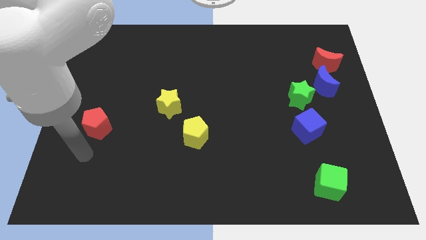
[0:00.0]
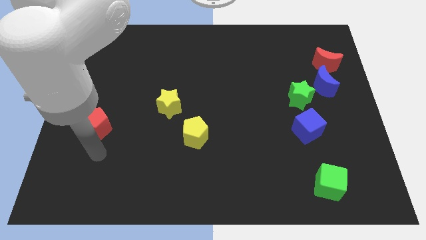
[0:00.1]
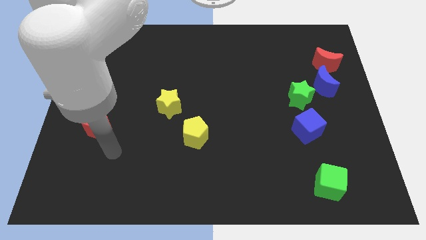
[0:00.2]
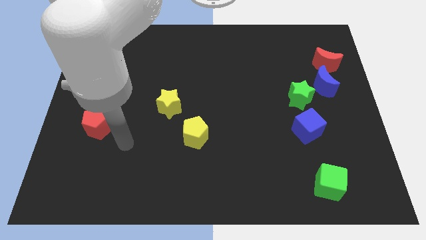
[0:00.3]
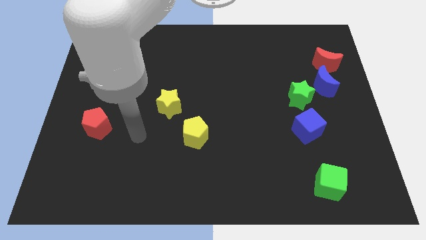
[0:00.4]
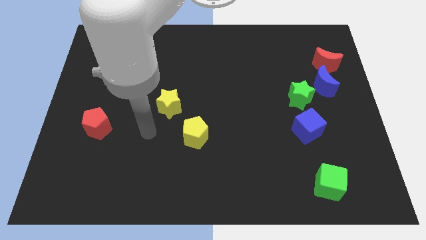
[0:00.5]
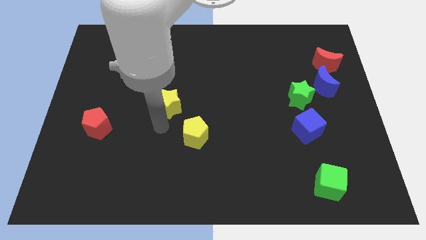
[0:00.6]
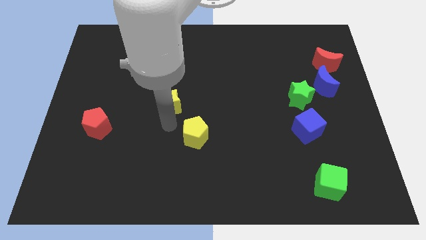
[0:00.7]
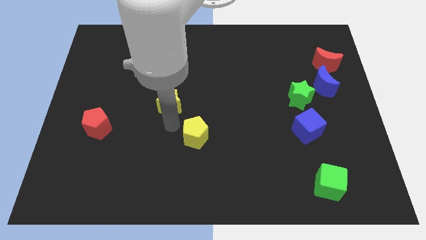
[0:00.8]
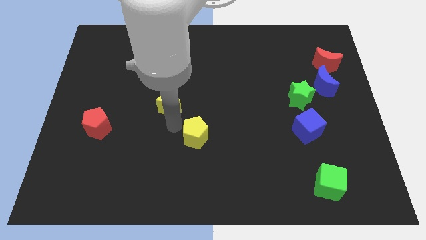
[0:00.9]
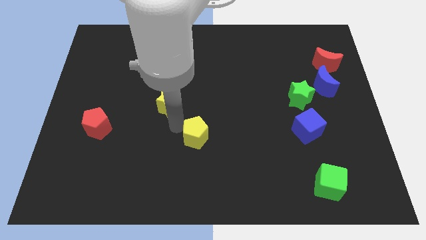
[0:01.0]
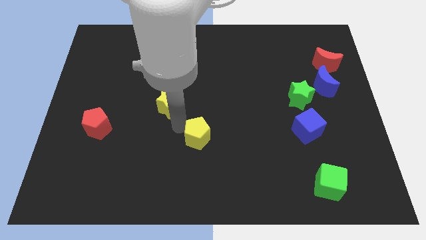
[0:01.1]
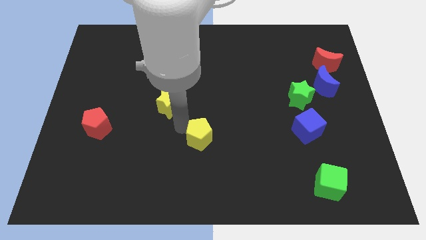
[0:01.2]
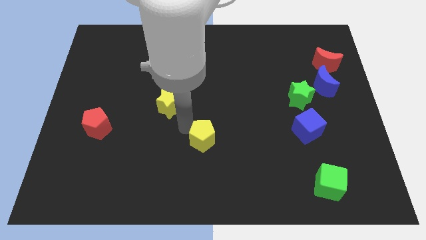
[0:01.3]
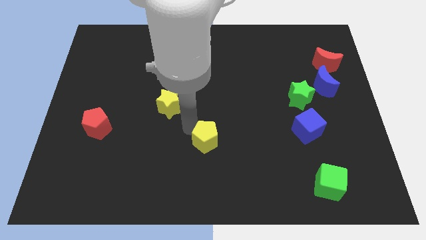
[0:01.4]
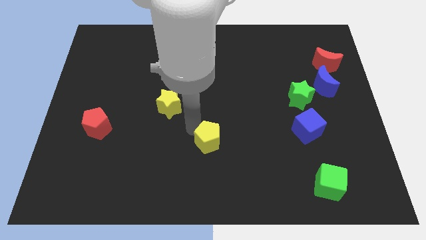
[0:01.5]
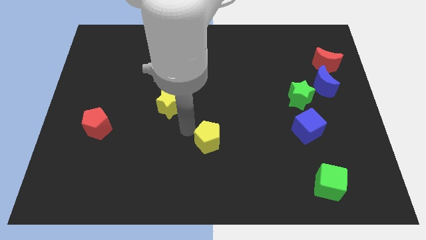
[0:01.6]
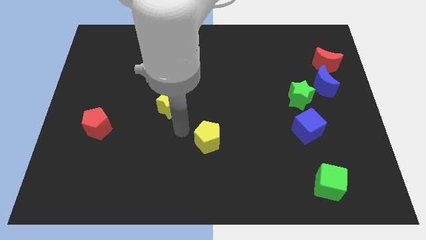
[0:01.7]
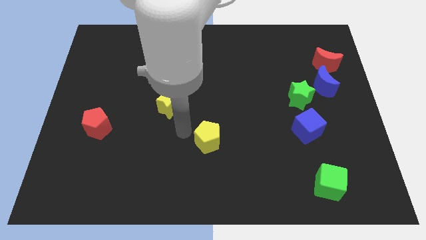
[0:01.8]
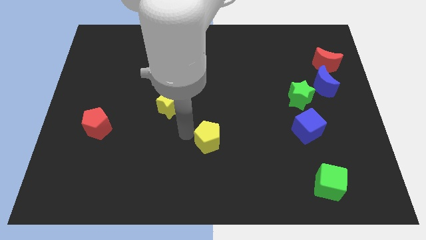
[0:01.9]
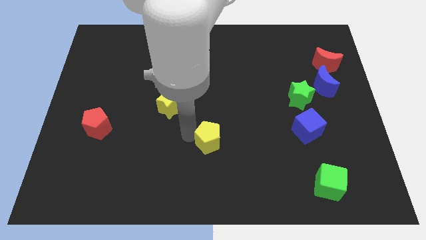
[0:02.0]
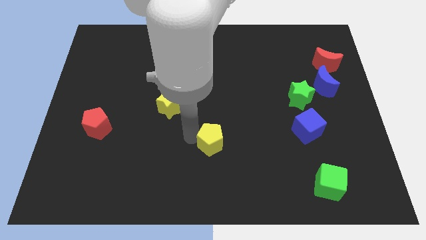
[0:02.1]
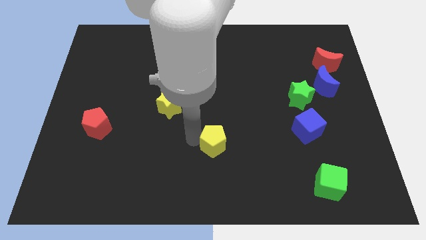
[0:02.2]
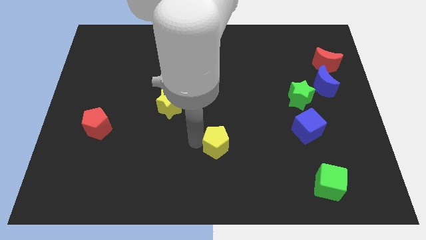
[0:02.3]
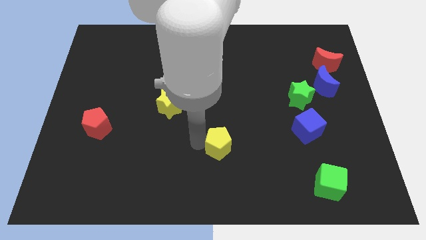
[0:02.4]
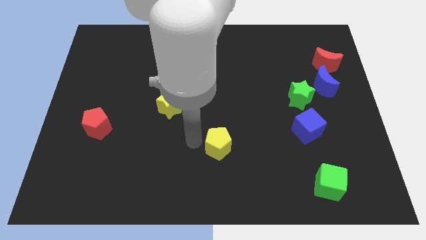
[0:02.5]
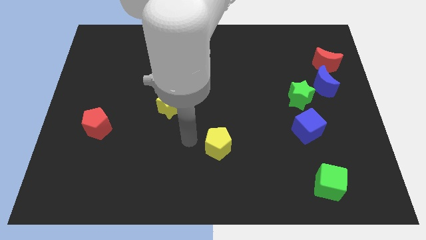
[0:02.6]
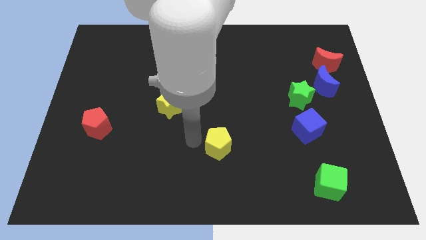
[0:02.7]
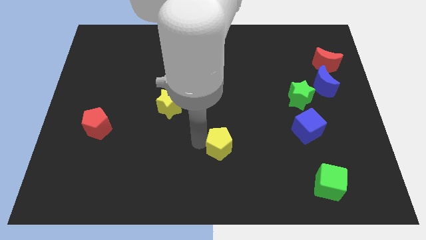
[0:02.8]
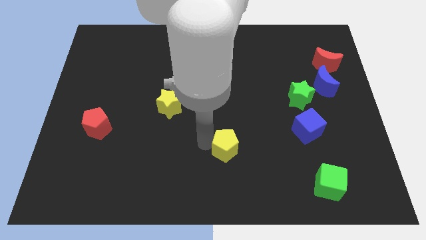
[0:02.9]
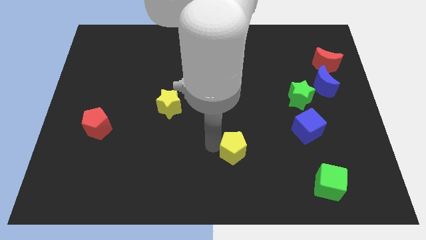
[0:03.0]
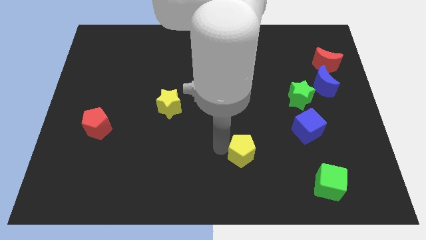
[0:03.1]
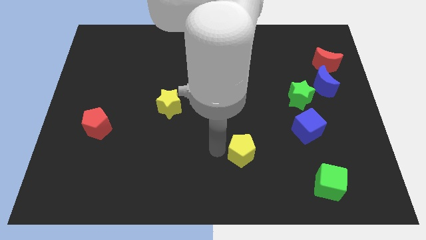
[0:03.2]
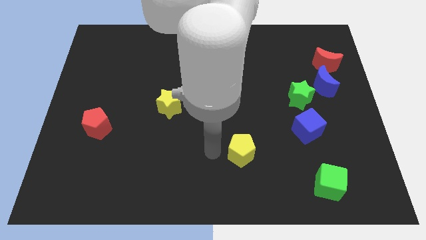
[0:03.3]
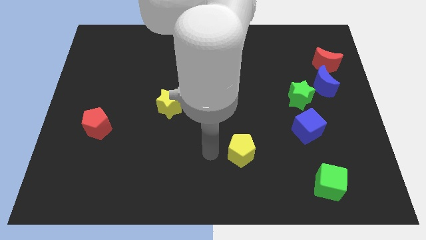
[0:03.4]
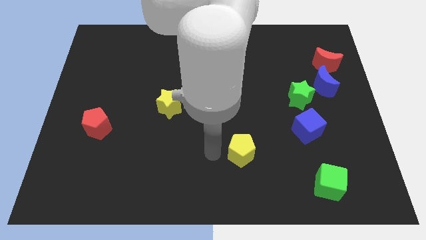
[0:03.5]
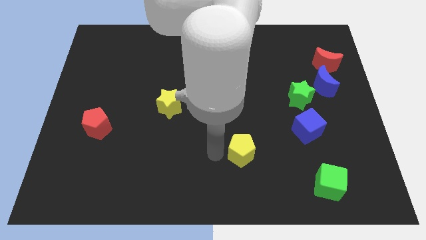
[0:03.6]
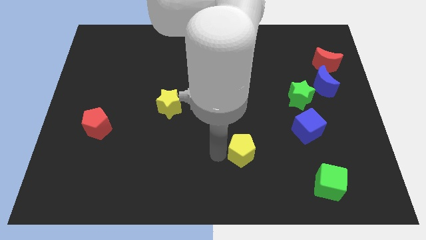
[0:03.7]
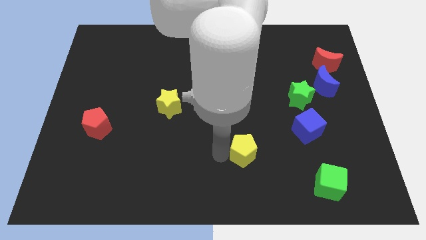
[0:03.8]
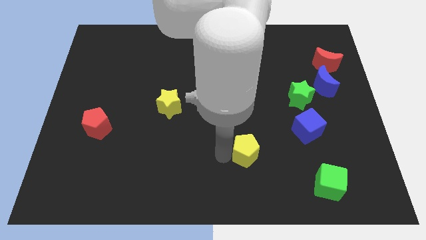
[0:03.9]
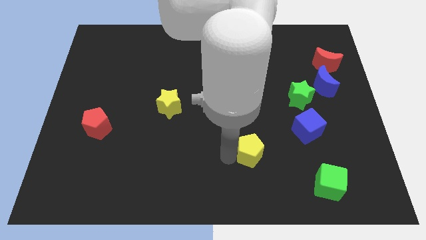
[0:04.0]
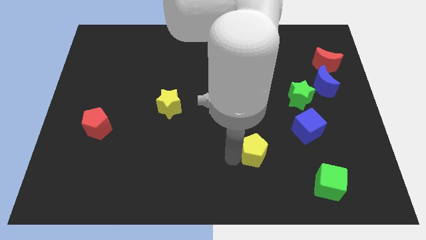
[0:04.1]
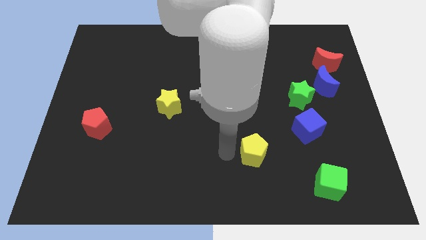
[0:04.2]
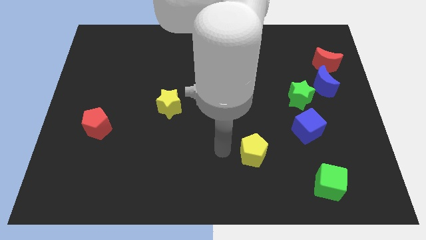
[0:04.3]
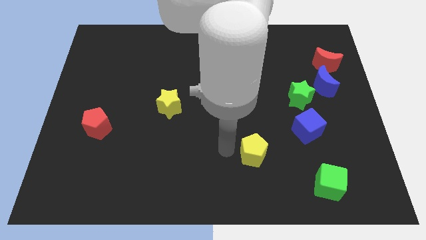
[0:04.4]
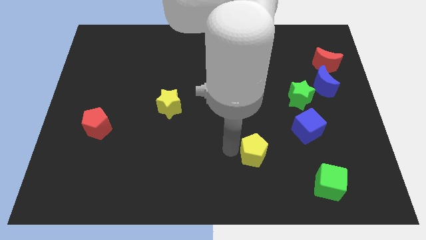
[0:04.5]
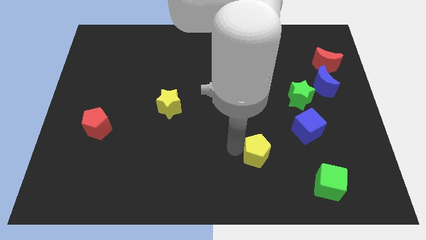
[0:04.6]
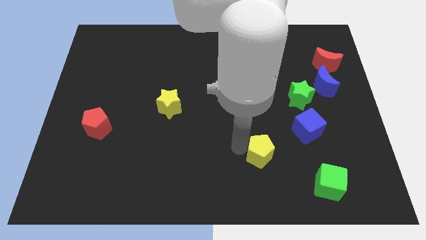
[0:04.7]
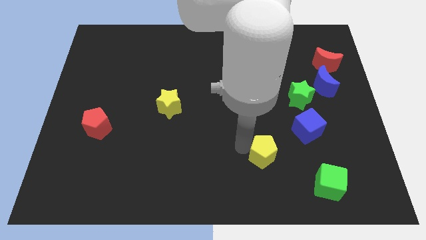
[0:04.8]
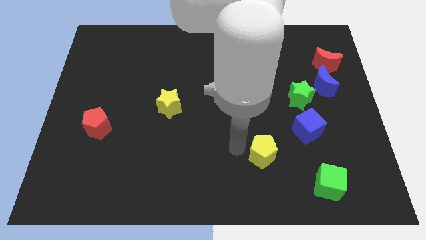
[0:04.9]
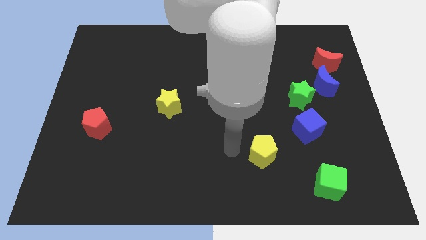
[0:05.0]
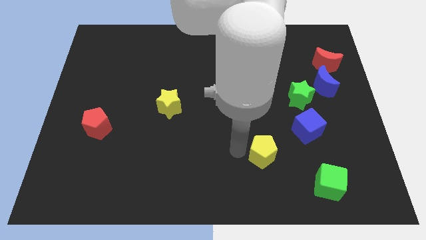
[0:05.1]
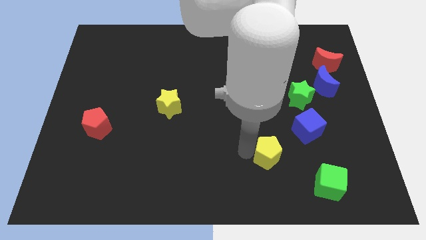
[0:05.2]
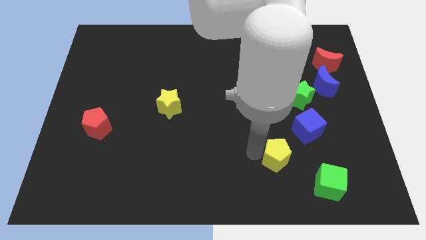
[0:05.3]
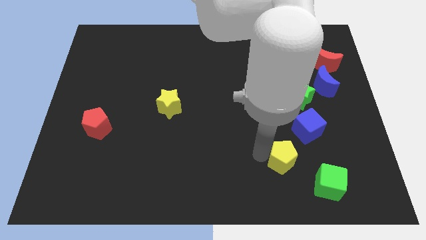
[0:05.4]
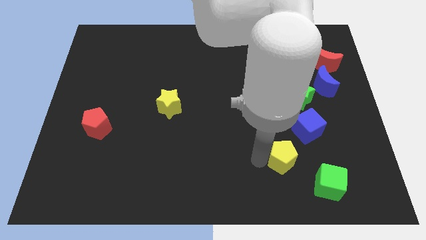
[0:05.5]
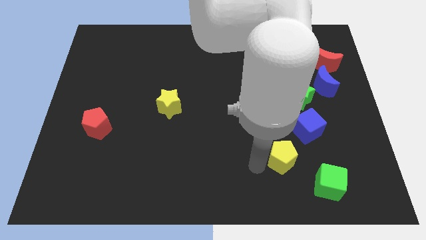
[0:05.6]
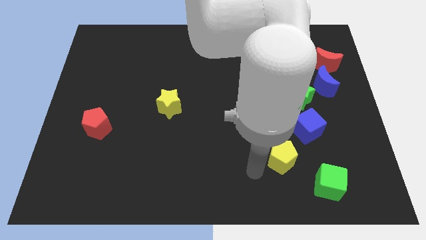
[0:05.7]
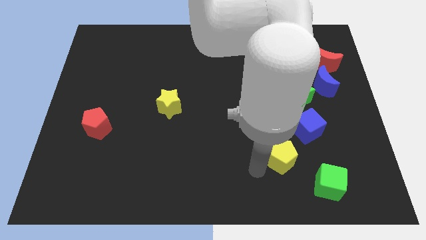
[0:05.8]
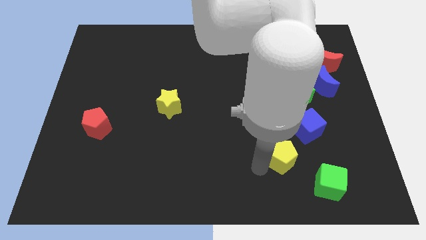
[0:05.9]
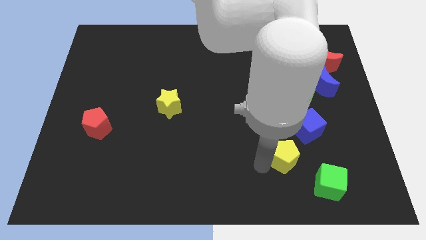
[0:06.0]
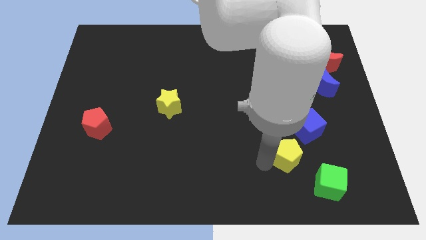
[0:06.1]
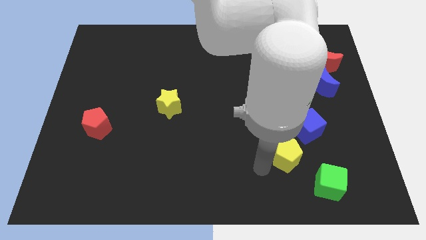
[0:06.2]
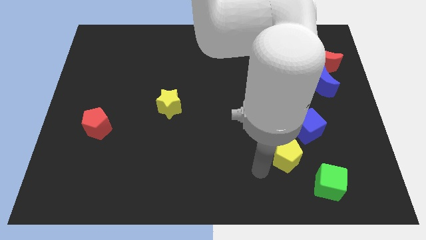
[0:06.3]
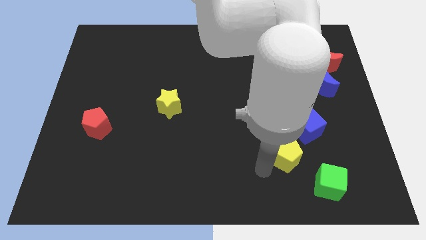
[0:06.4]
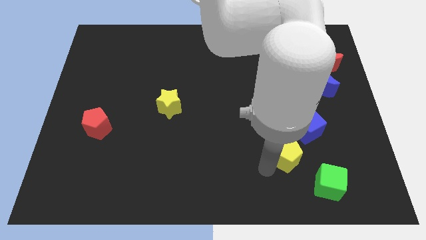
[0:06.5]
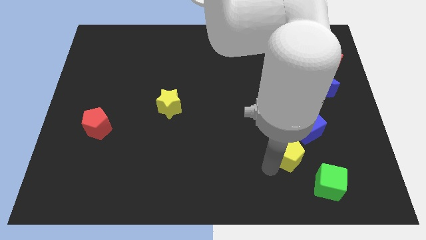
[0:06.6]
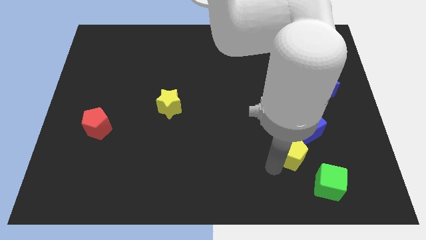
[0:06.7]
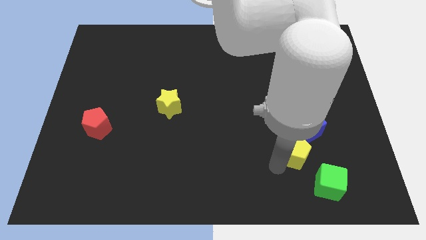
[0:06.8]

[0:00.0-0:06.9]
slide the yellow pentagon to the right

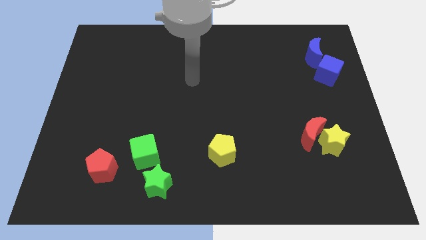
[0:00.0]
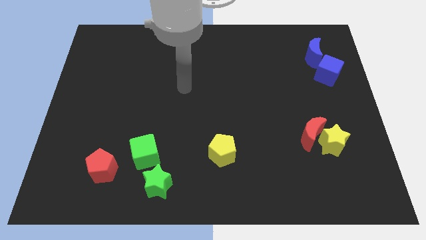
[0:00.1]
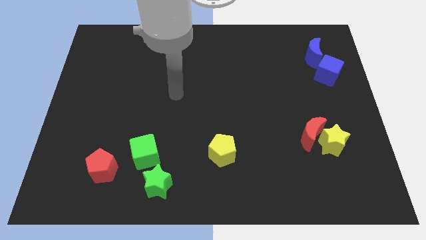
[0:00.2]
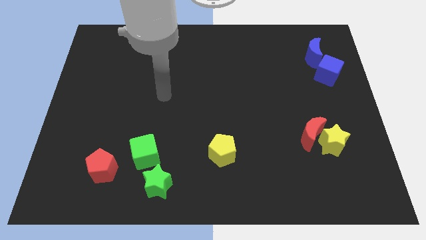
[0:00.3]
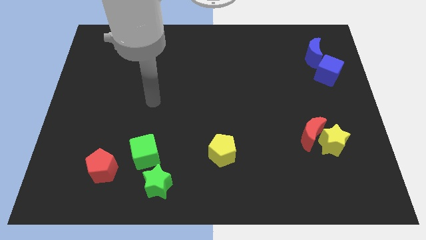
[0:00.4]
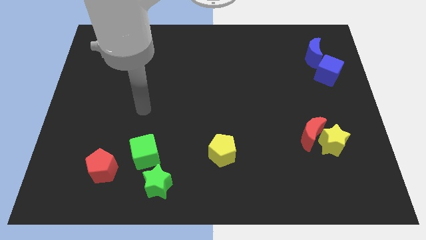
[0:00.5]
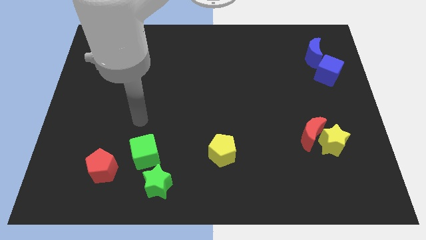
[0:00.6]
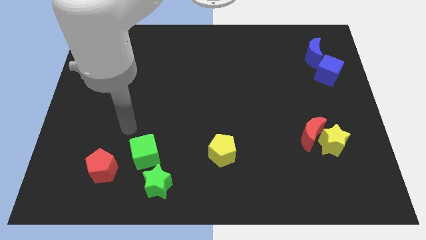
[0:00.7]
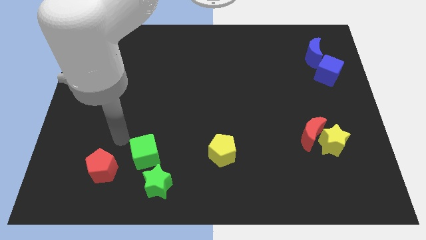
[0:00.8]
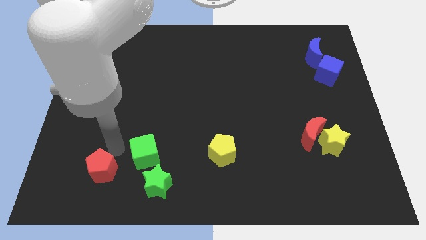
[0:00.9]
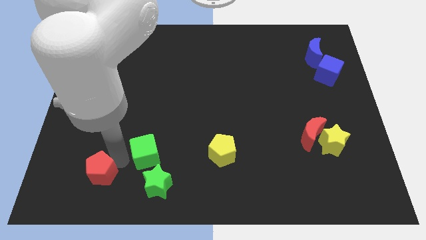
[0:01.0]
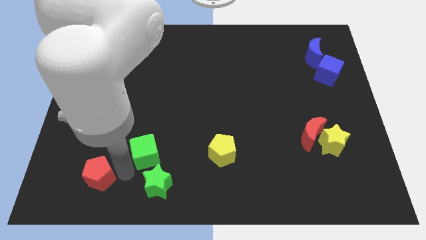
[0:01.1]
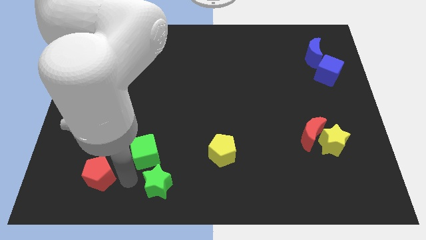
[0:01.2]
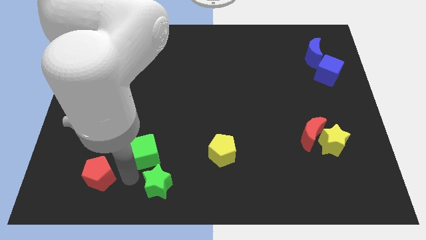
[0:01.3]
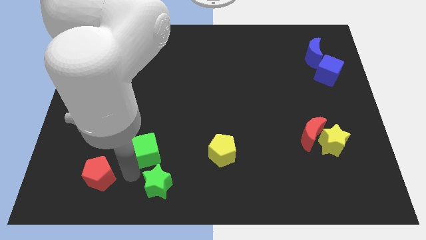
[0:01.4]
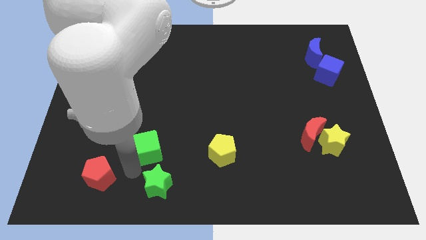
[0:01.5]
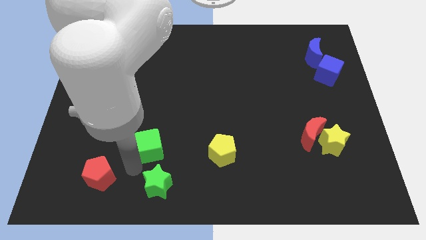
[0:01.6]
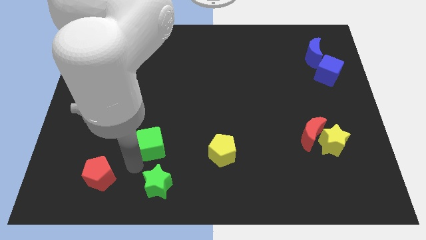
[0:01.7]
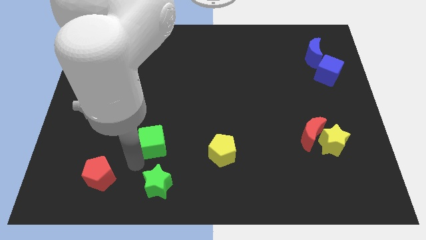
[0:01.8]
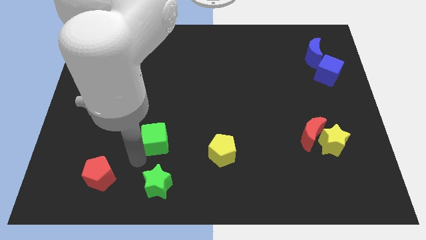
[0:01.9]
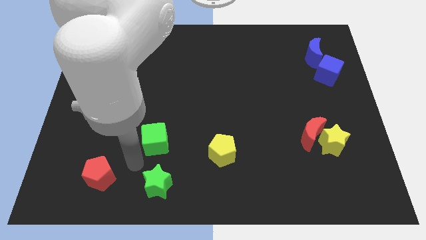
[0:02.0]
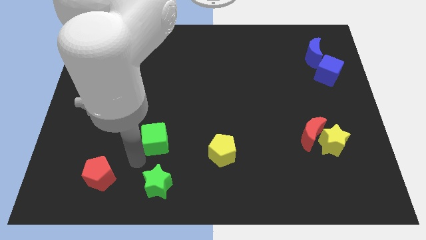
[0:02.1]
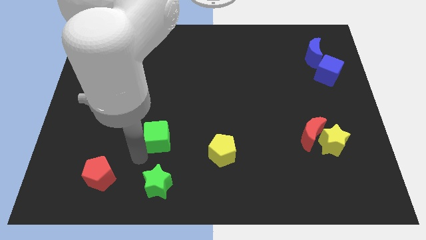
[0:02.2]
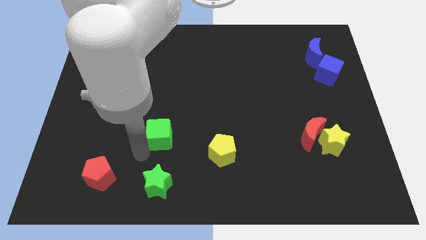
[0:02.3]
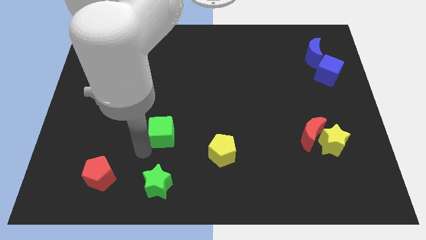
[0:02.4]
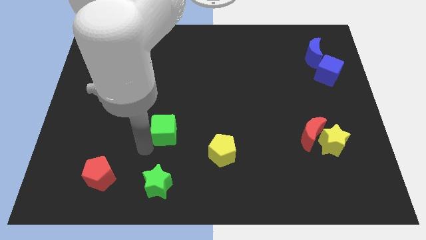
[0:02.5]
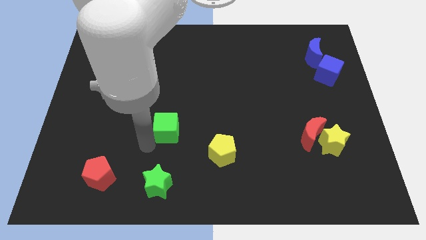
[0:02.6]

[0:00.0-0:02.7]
move the green cube a little bit diagonally up and right
